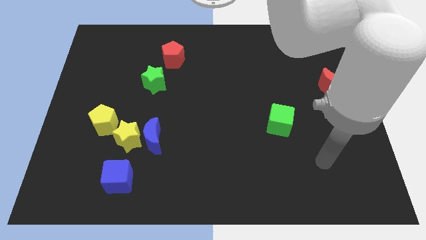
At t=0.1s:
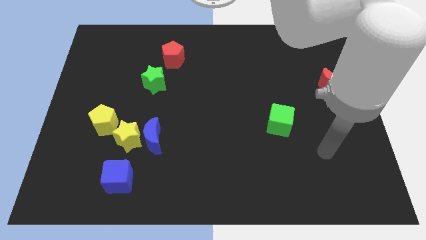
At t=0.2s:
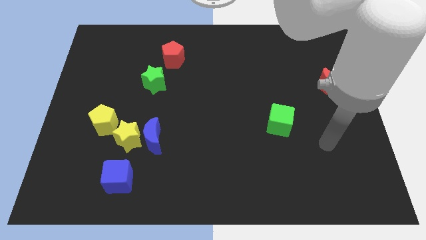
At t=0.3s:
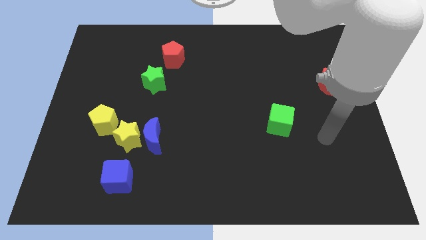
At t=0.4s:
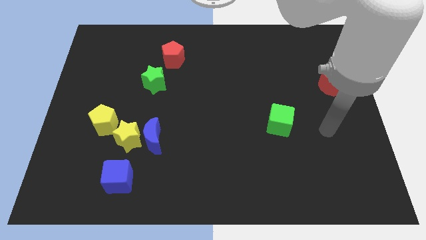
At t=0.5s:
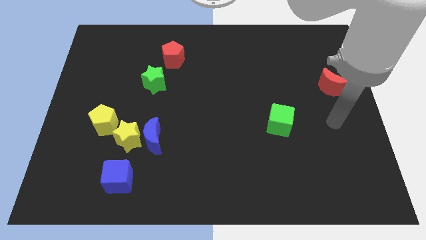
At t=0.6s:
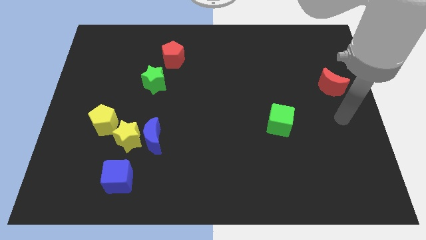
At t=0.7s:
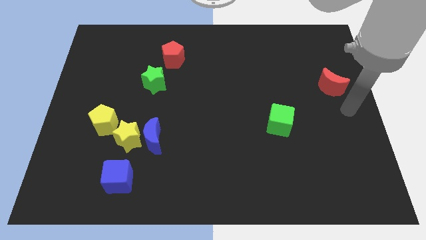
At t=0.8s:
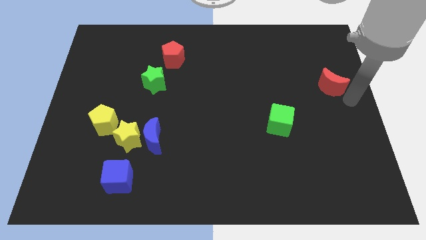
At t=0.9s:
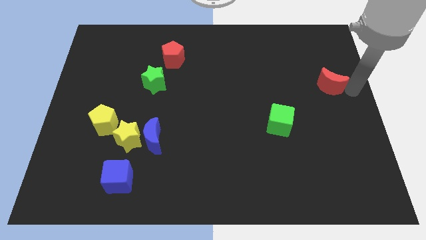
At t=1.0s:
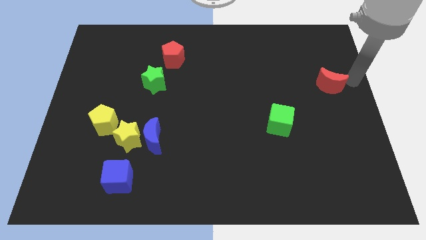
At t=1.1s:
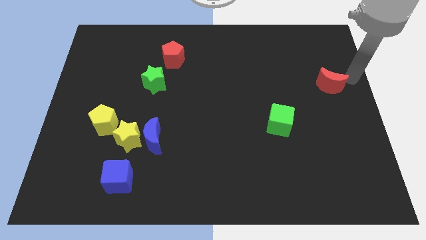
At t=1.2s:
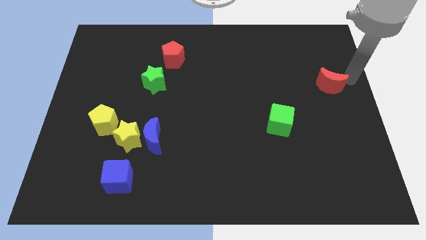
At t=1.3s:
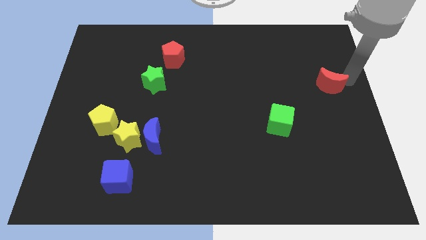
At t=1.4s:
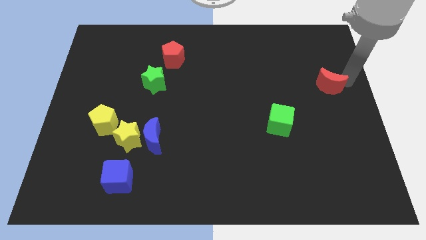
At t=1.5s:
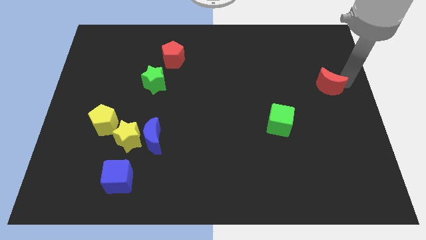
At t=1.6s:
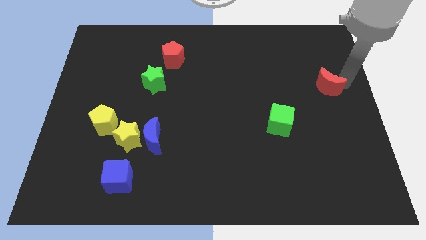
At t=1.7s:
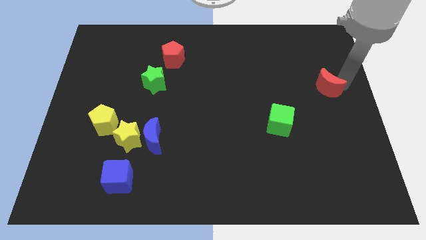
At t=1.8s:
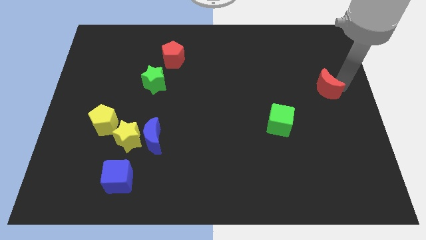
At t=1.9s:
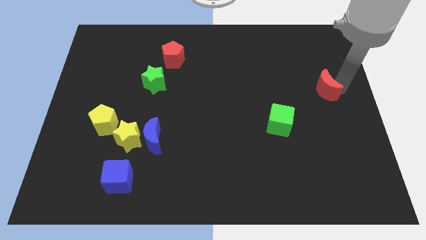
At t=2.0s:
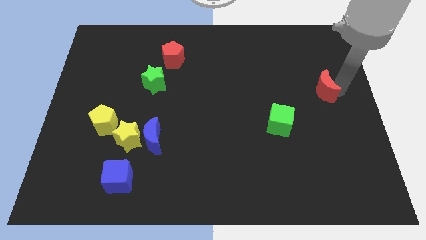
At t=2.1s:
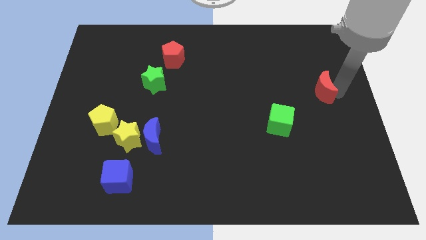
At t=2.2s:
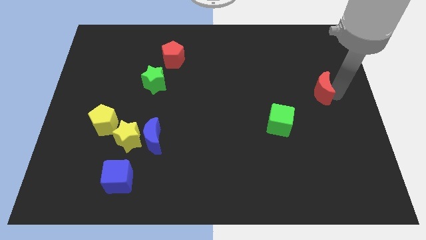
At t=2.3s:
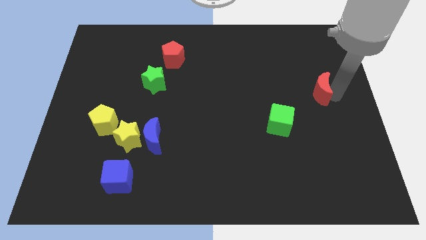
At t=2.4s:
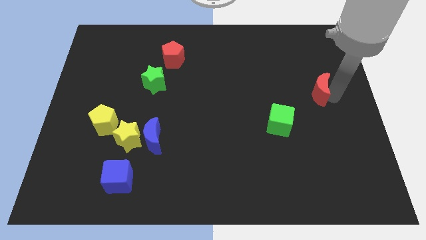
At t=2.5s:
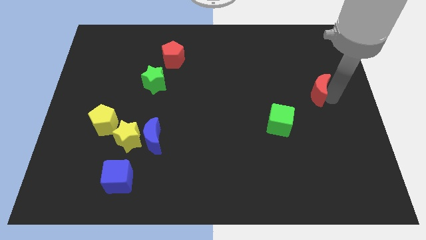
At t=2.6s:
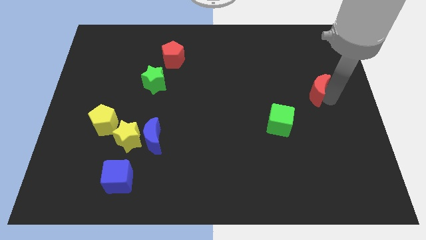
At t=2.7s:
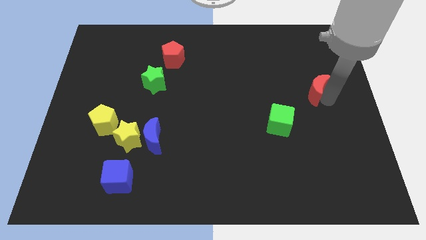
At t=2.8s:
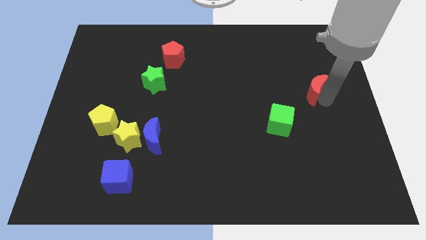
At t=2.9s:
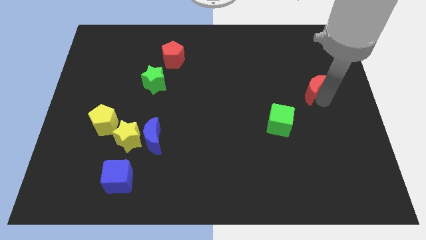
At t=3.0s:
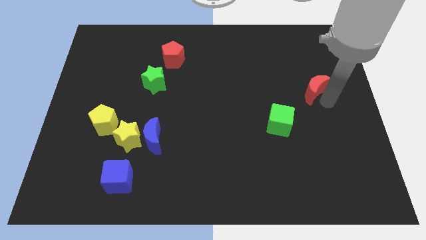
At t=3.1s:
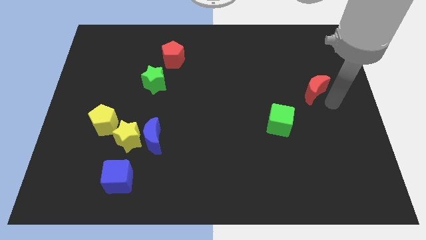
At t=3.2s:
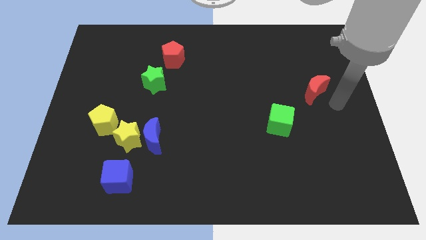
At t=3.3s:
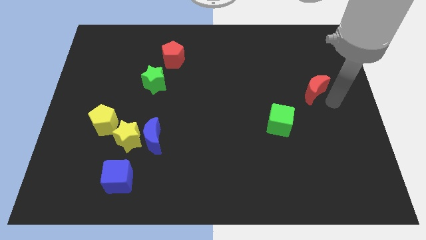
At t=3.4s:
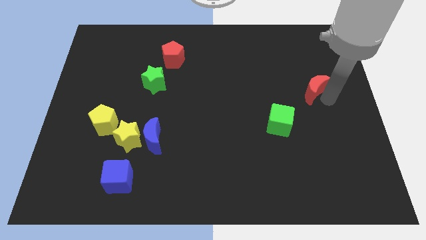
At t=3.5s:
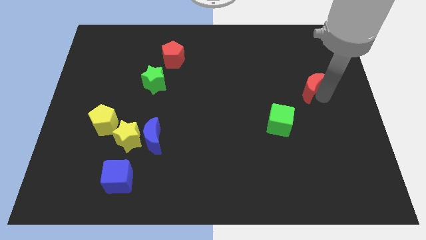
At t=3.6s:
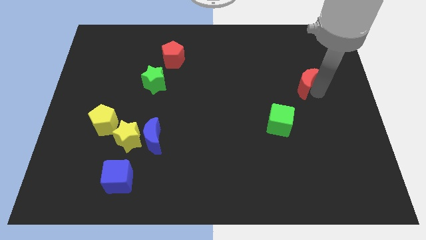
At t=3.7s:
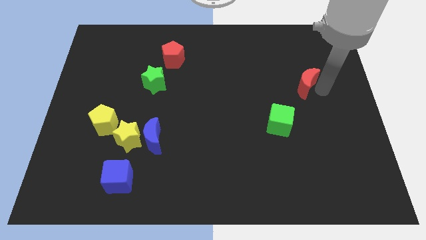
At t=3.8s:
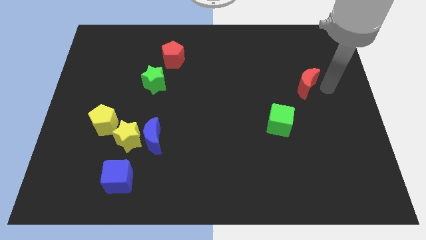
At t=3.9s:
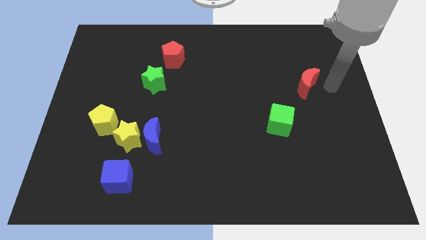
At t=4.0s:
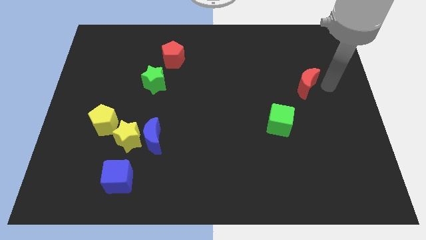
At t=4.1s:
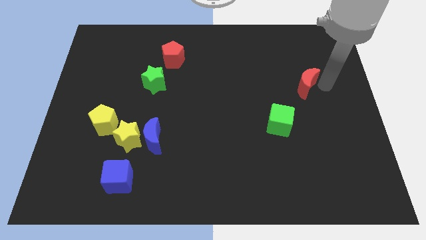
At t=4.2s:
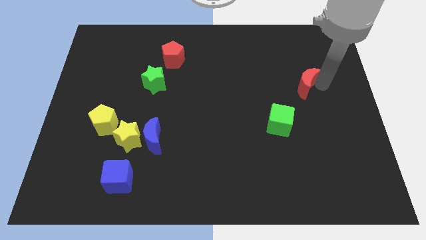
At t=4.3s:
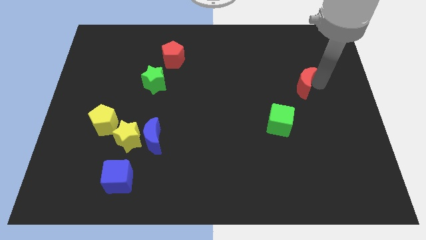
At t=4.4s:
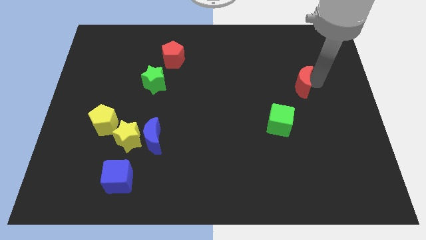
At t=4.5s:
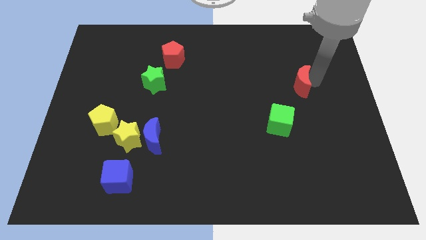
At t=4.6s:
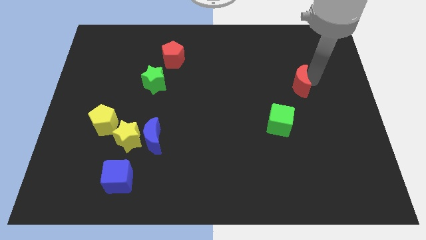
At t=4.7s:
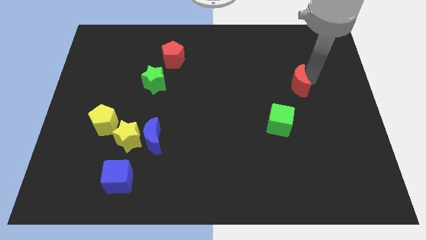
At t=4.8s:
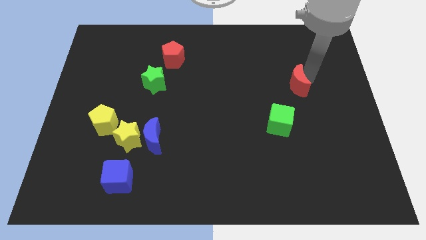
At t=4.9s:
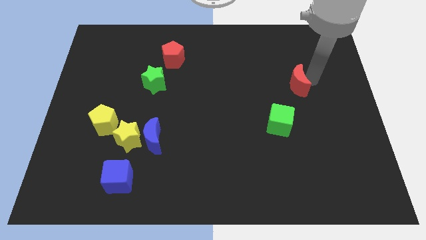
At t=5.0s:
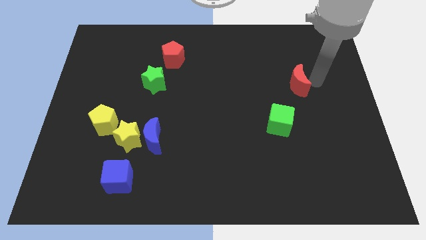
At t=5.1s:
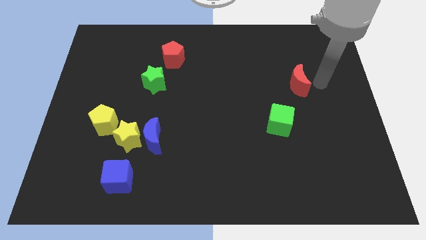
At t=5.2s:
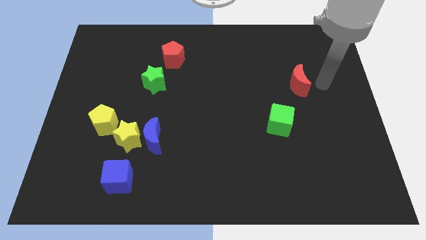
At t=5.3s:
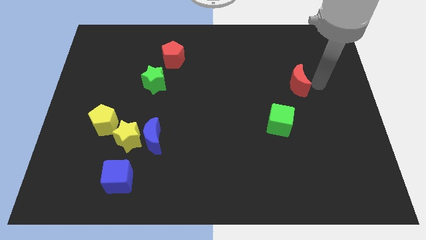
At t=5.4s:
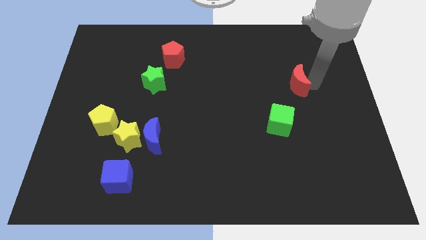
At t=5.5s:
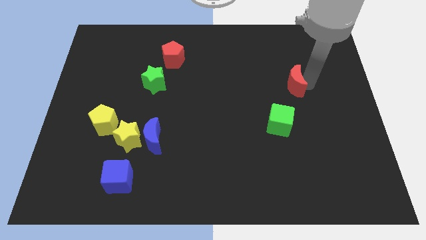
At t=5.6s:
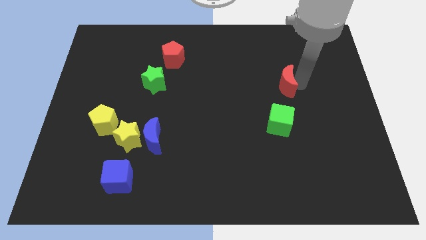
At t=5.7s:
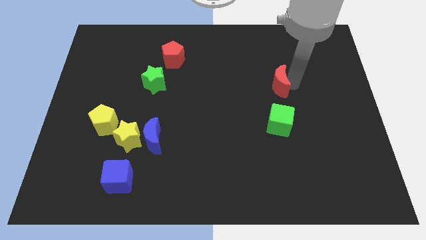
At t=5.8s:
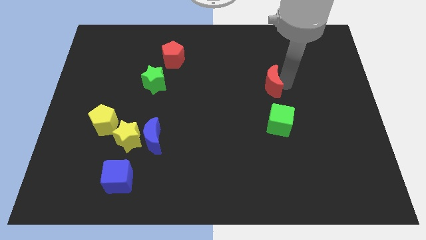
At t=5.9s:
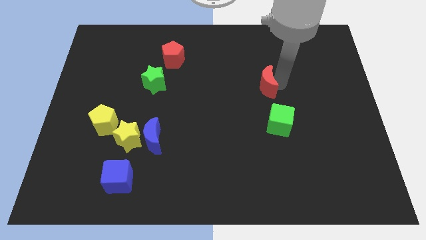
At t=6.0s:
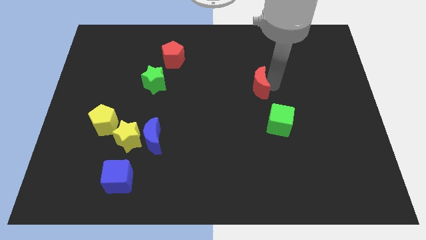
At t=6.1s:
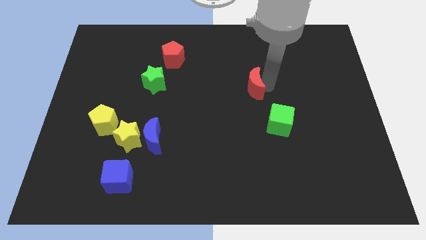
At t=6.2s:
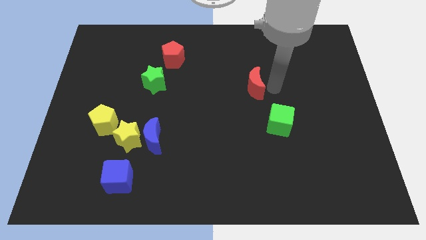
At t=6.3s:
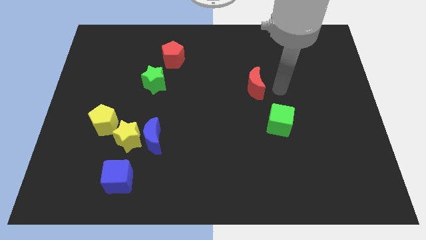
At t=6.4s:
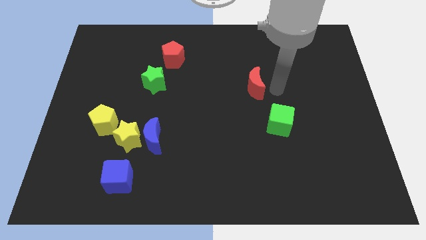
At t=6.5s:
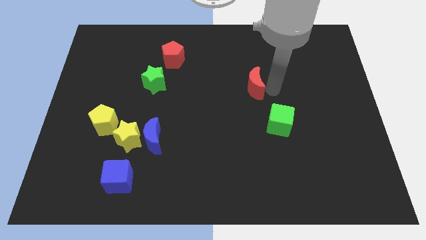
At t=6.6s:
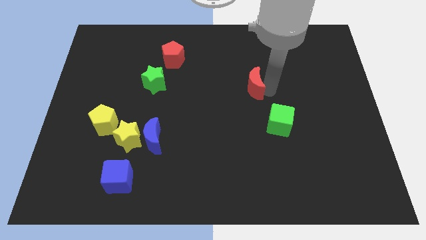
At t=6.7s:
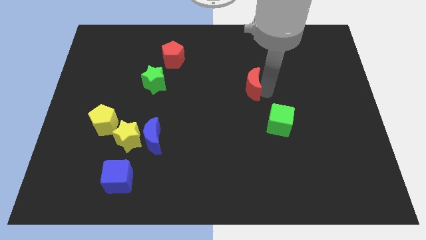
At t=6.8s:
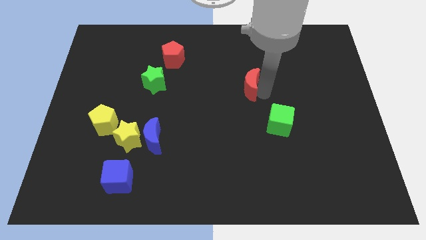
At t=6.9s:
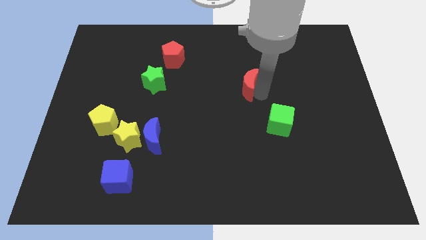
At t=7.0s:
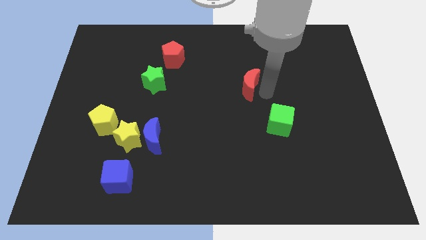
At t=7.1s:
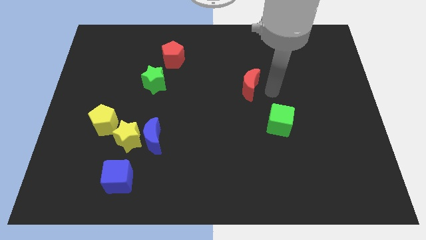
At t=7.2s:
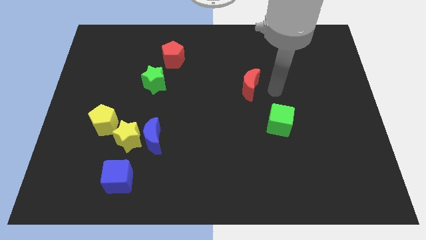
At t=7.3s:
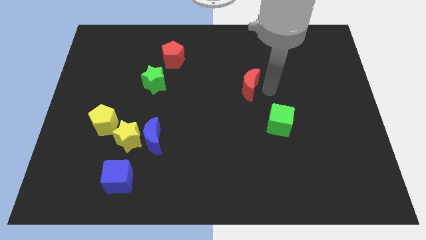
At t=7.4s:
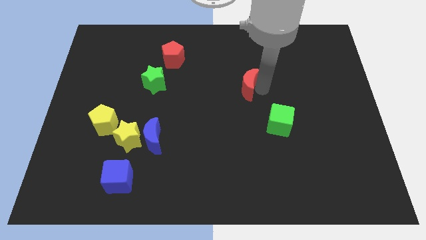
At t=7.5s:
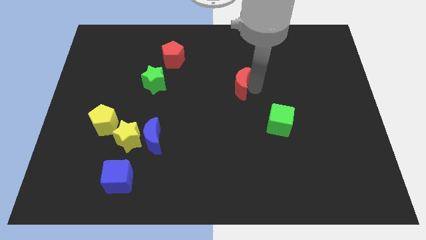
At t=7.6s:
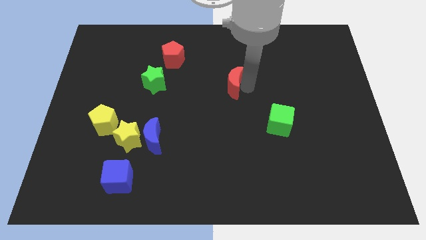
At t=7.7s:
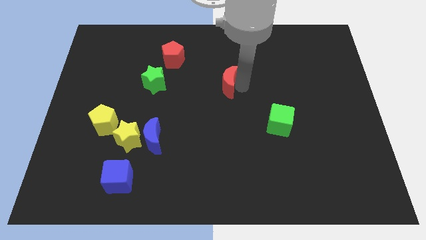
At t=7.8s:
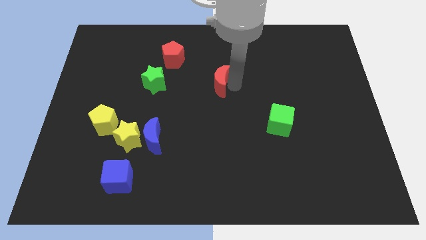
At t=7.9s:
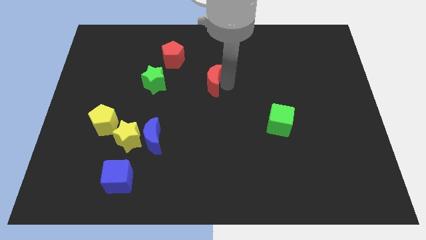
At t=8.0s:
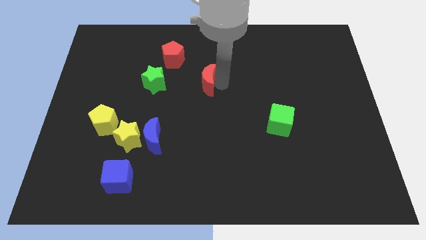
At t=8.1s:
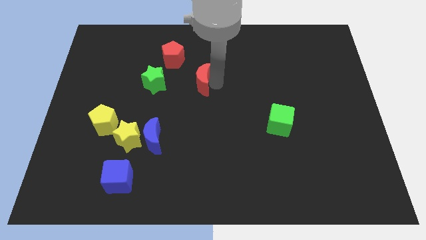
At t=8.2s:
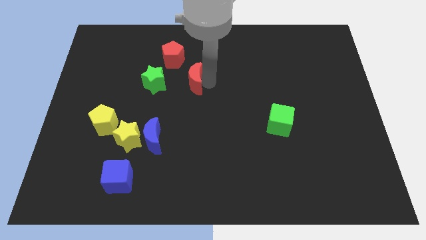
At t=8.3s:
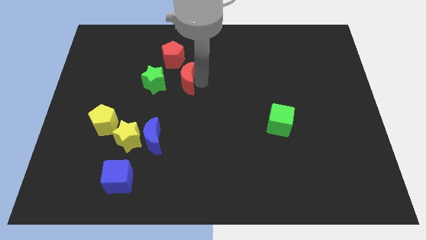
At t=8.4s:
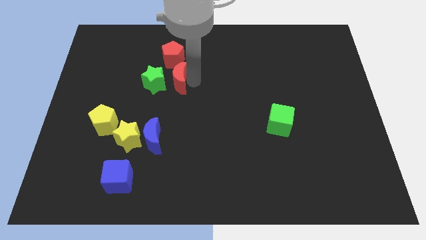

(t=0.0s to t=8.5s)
slide the red moon to the green star
